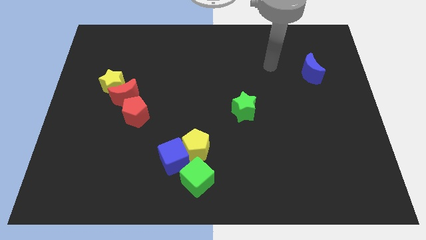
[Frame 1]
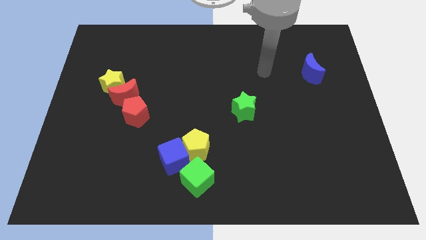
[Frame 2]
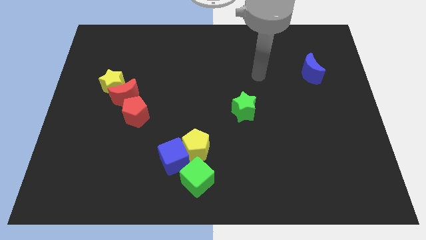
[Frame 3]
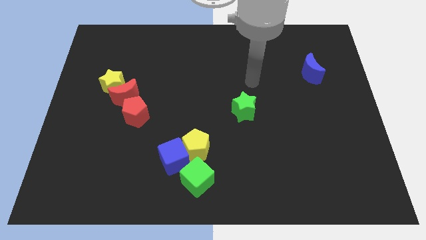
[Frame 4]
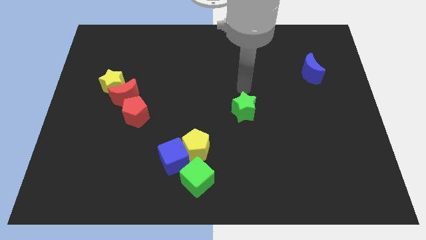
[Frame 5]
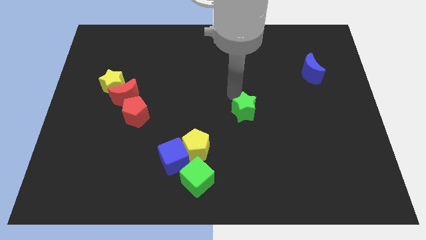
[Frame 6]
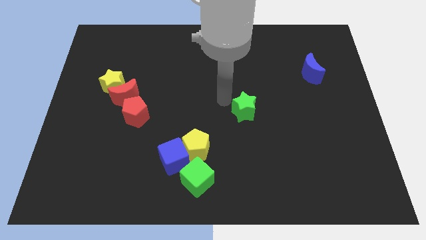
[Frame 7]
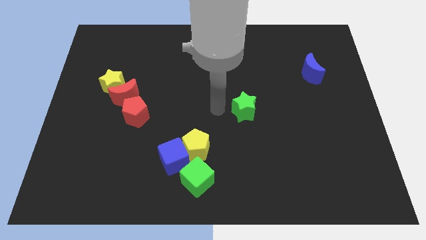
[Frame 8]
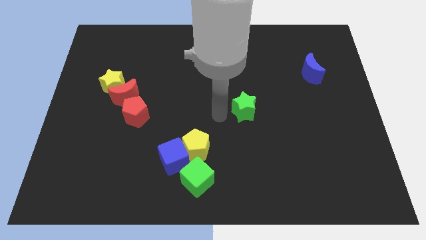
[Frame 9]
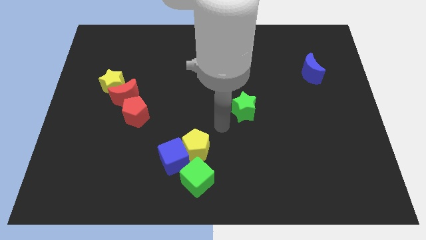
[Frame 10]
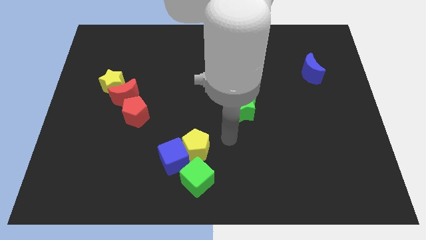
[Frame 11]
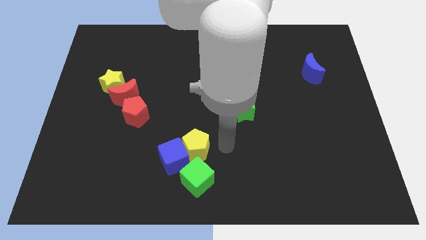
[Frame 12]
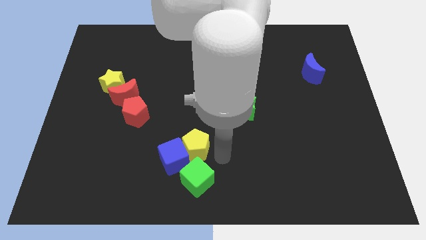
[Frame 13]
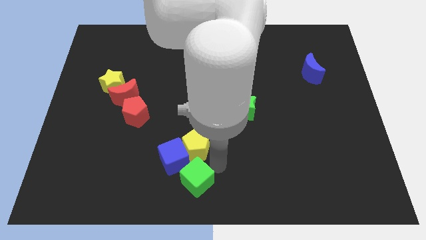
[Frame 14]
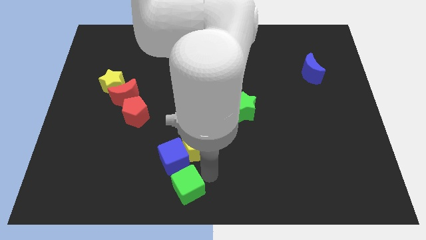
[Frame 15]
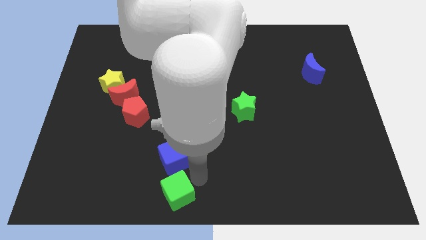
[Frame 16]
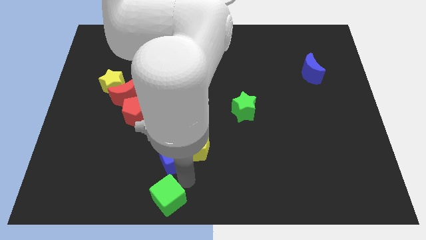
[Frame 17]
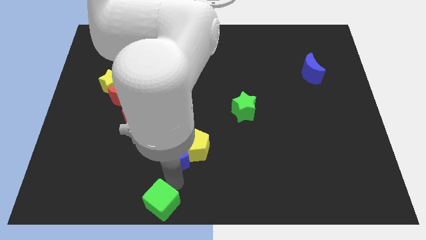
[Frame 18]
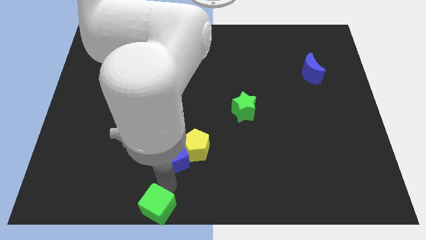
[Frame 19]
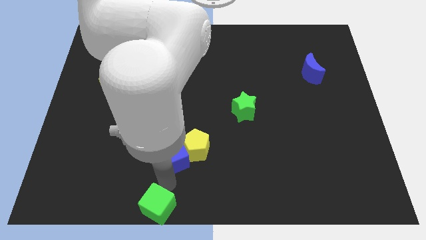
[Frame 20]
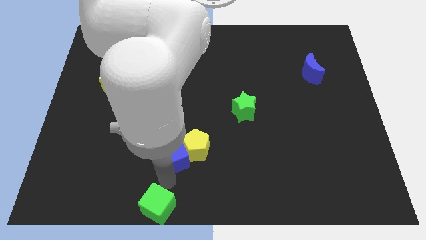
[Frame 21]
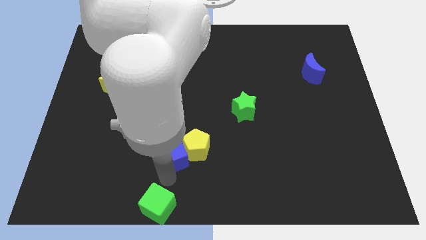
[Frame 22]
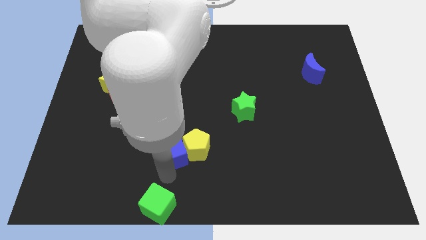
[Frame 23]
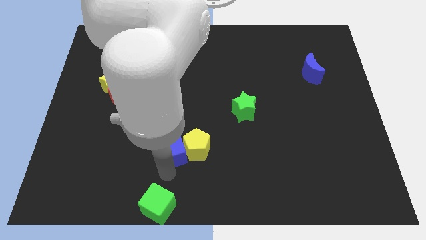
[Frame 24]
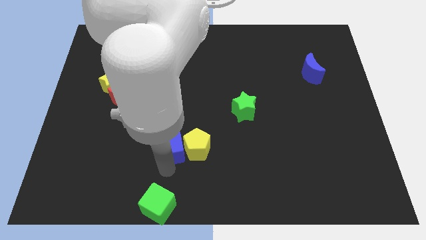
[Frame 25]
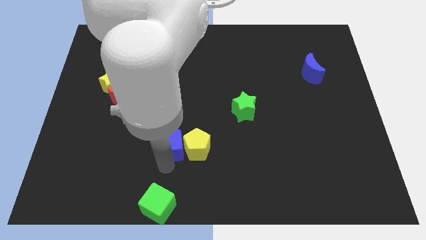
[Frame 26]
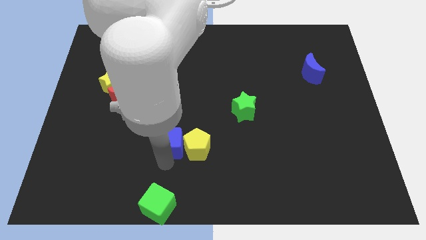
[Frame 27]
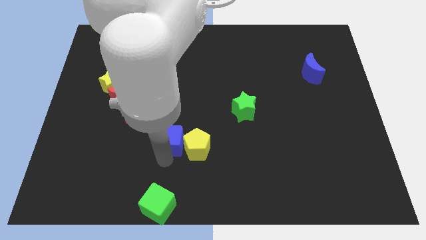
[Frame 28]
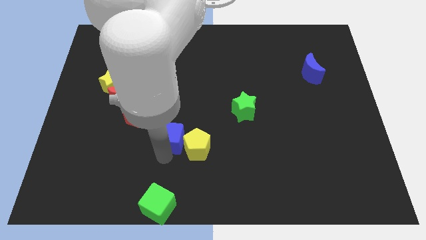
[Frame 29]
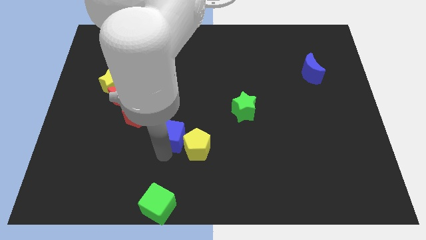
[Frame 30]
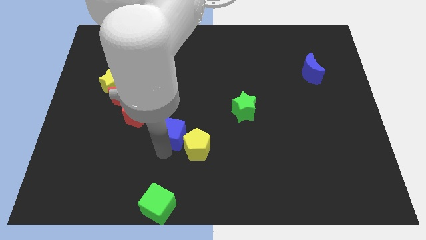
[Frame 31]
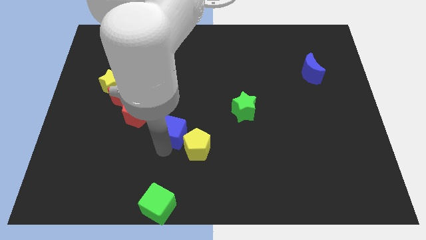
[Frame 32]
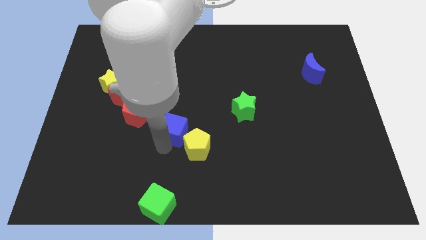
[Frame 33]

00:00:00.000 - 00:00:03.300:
move the blue cube somewhat up

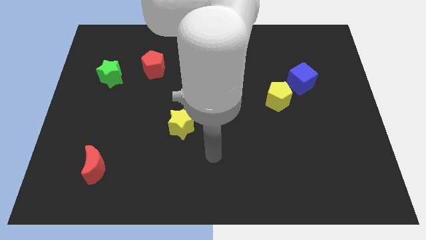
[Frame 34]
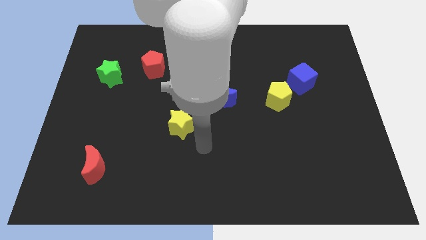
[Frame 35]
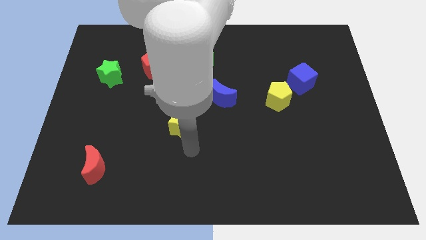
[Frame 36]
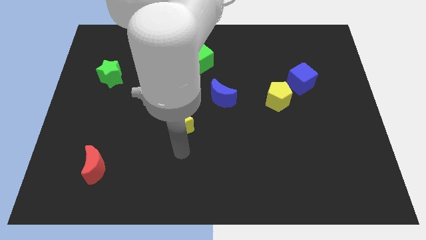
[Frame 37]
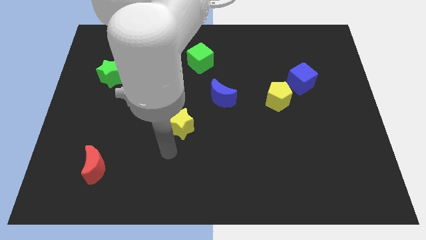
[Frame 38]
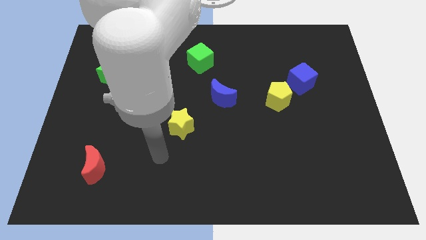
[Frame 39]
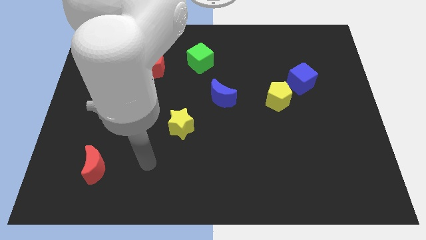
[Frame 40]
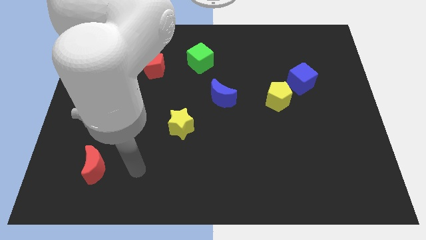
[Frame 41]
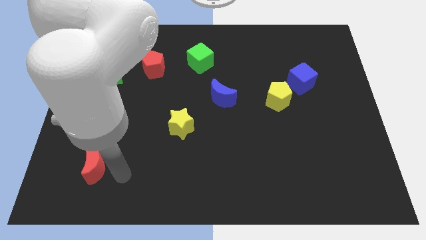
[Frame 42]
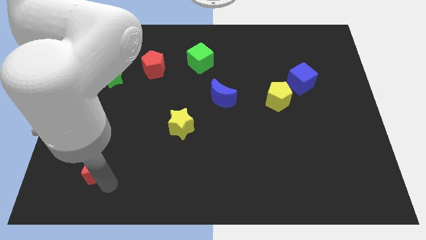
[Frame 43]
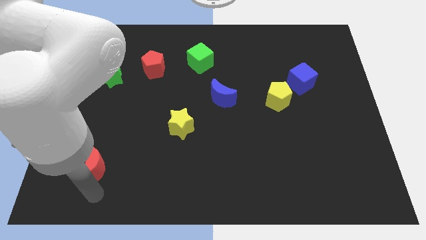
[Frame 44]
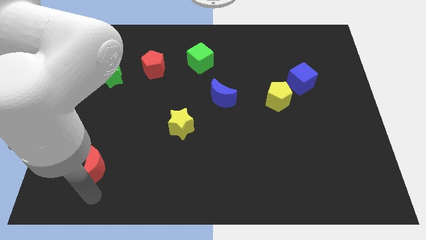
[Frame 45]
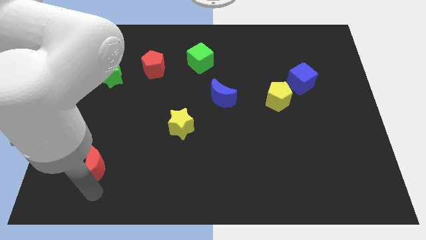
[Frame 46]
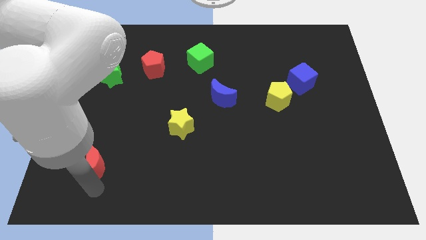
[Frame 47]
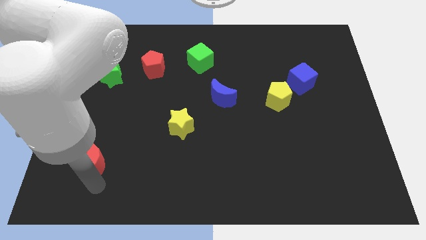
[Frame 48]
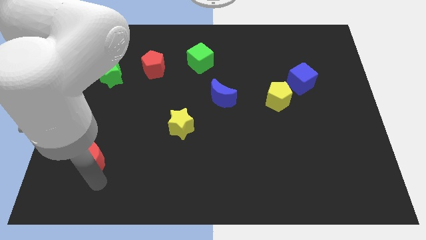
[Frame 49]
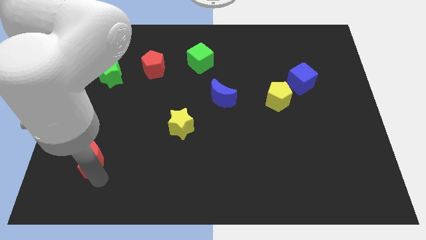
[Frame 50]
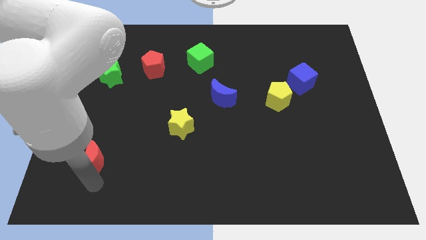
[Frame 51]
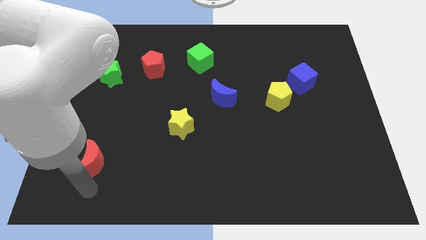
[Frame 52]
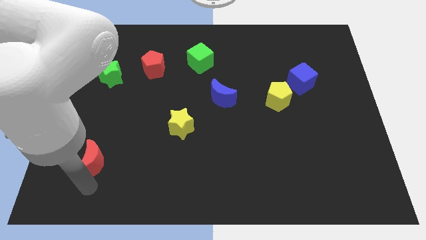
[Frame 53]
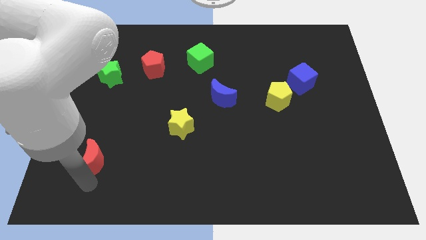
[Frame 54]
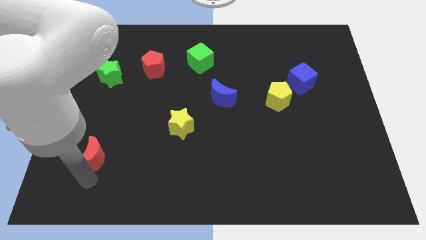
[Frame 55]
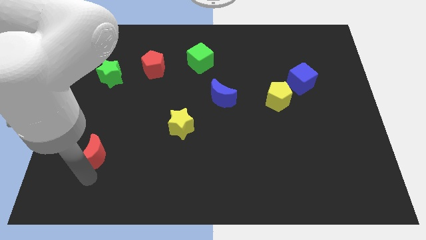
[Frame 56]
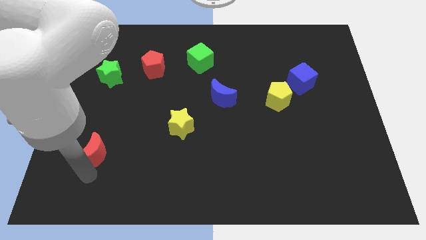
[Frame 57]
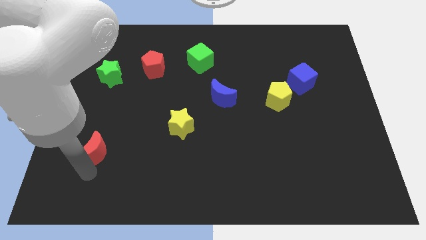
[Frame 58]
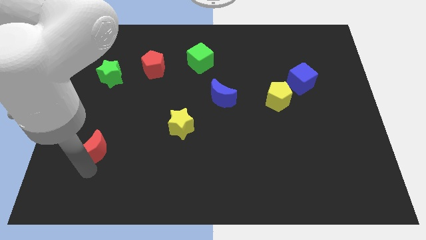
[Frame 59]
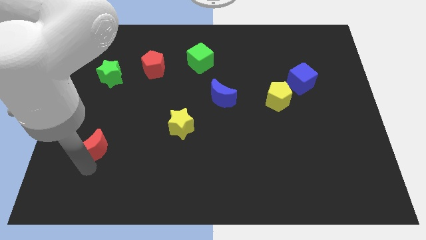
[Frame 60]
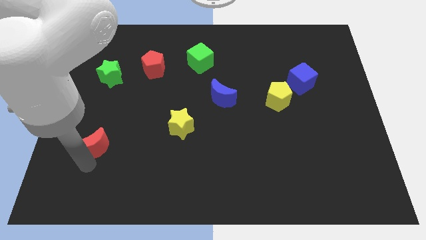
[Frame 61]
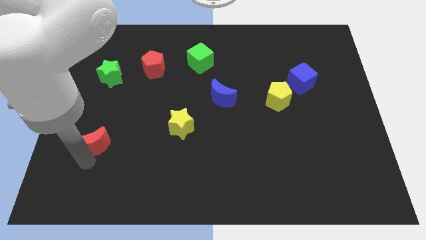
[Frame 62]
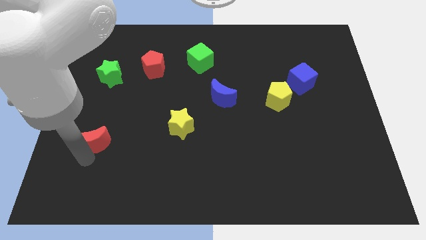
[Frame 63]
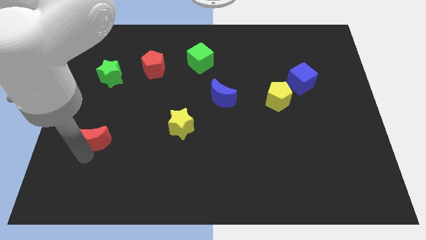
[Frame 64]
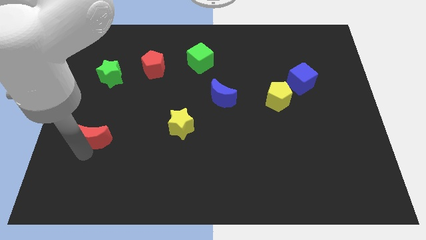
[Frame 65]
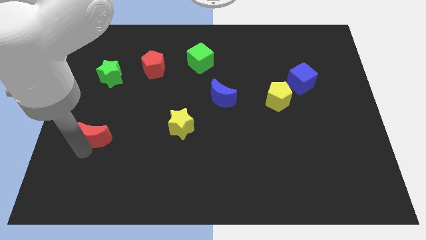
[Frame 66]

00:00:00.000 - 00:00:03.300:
move the red moon upwards a little bit

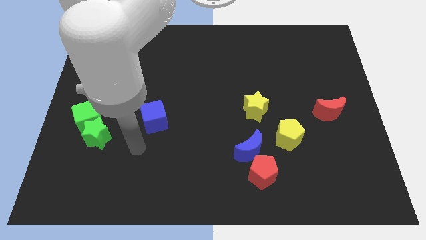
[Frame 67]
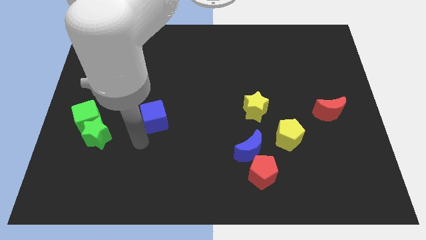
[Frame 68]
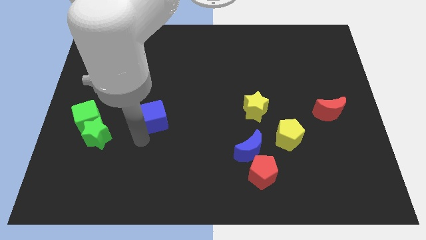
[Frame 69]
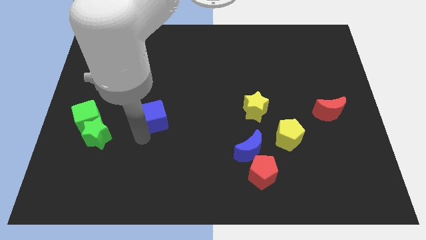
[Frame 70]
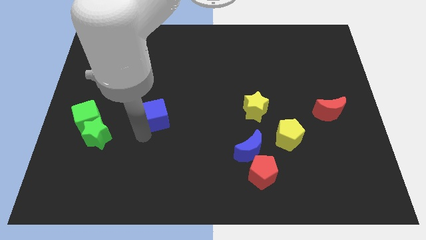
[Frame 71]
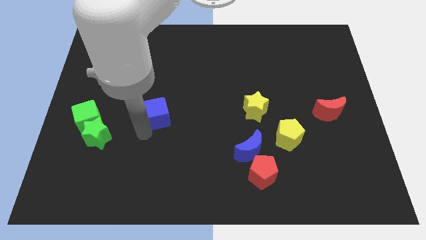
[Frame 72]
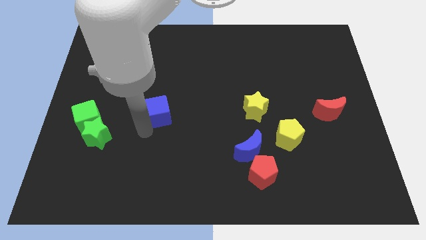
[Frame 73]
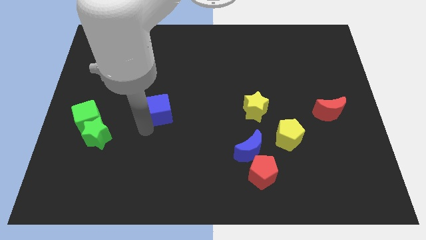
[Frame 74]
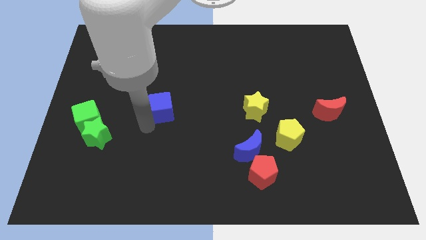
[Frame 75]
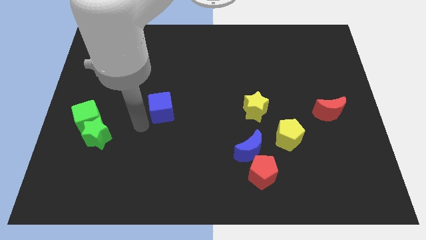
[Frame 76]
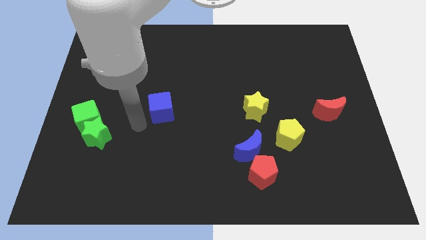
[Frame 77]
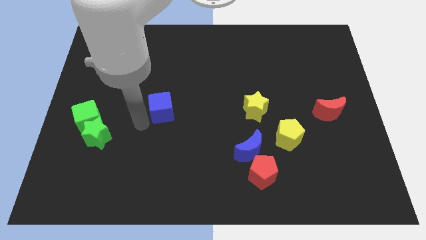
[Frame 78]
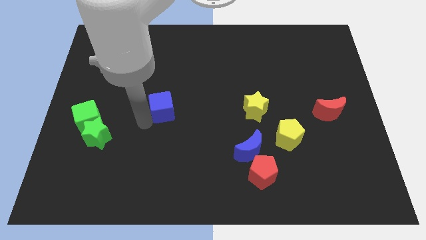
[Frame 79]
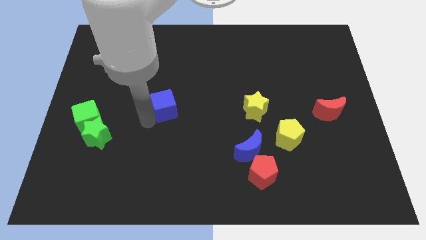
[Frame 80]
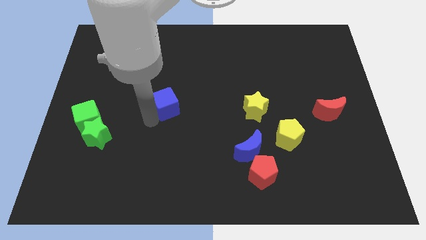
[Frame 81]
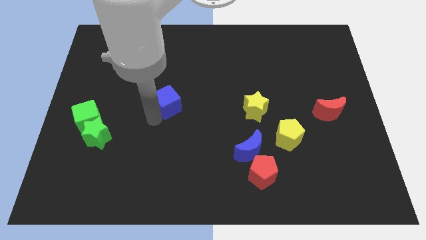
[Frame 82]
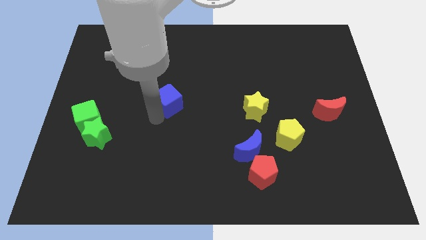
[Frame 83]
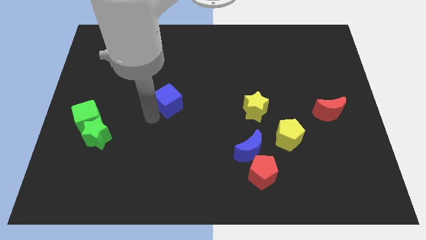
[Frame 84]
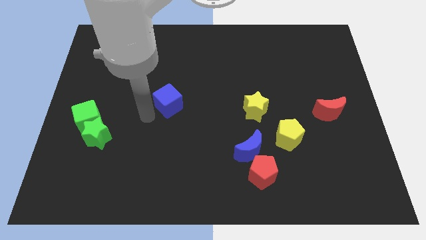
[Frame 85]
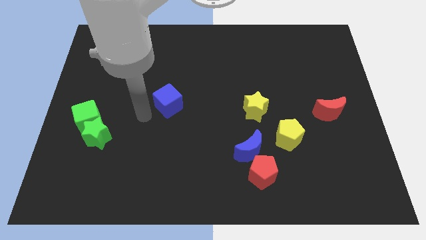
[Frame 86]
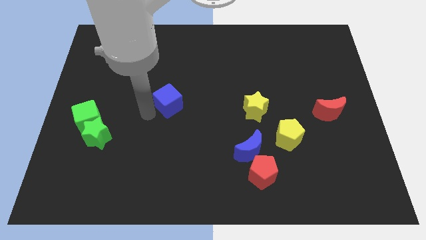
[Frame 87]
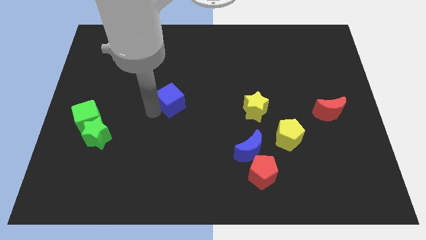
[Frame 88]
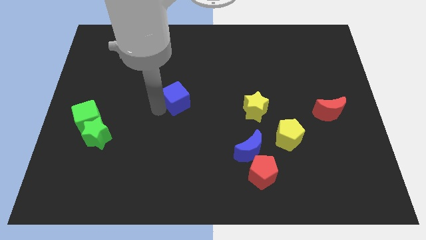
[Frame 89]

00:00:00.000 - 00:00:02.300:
slide the blue cube up and then to the right a little
